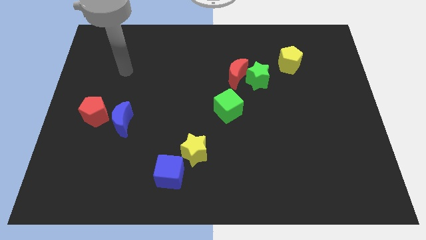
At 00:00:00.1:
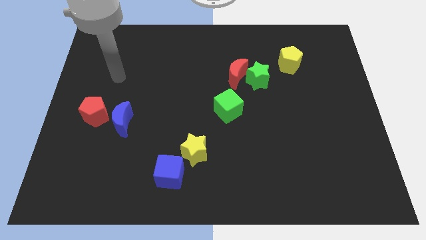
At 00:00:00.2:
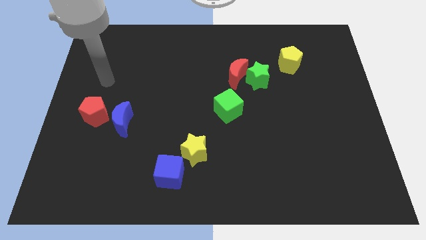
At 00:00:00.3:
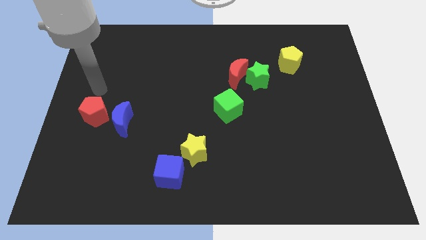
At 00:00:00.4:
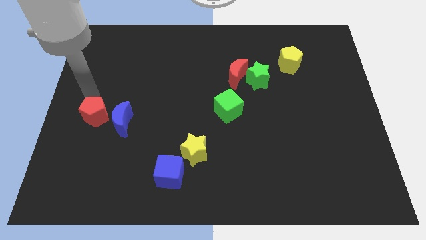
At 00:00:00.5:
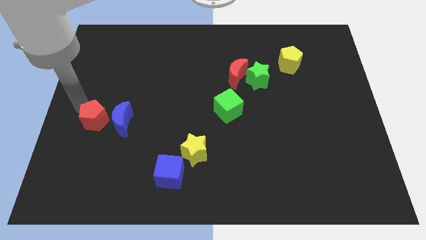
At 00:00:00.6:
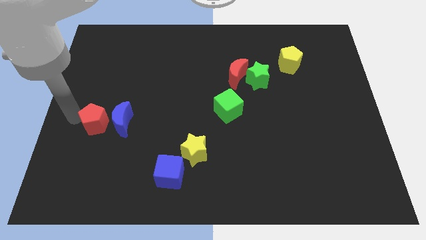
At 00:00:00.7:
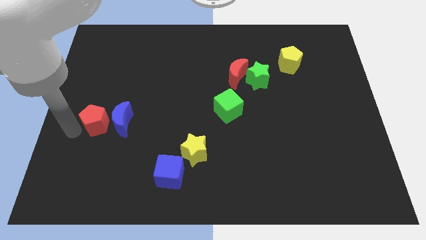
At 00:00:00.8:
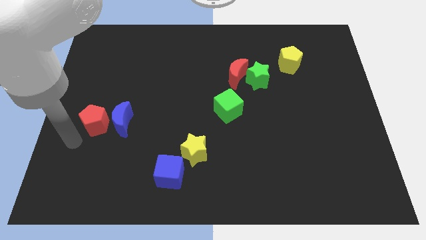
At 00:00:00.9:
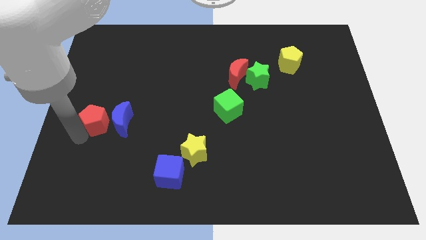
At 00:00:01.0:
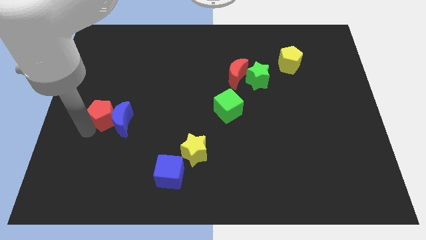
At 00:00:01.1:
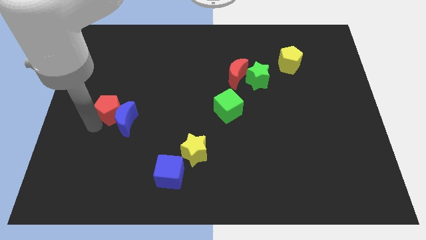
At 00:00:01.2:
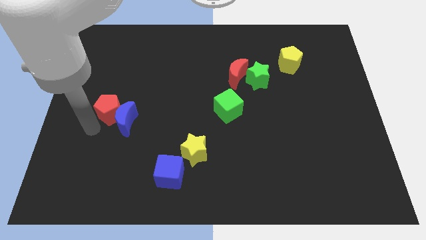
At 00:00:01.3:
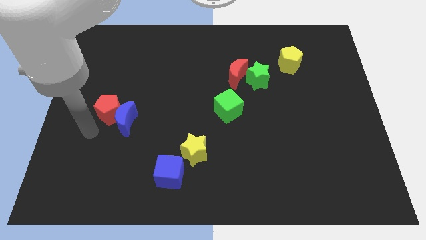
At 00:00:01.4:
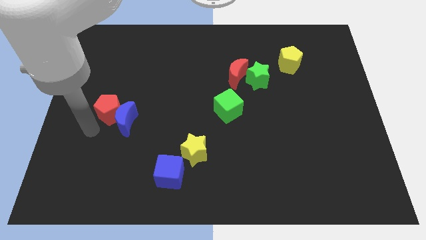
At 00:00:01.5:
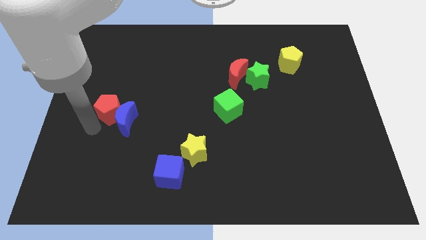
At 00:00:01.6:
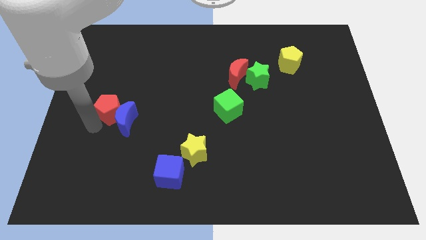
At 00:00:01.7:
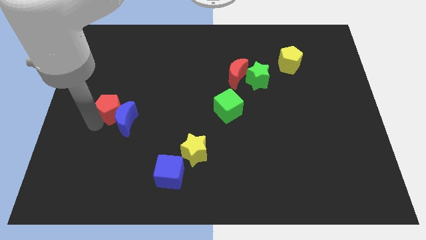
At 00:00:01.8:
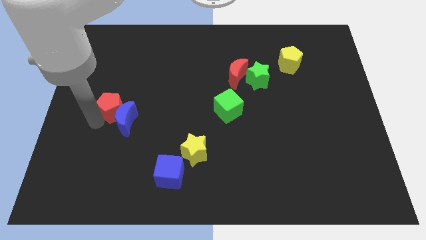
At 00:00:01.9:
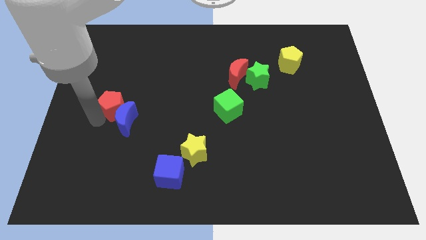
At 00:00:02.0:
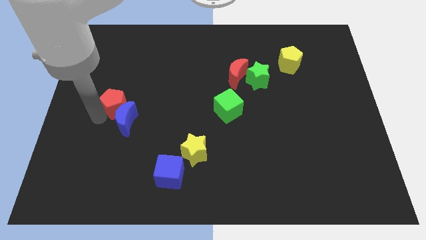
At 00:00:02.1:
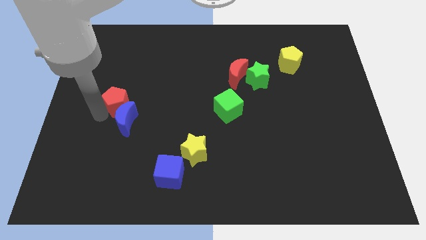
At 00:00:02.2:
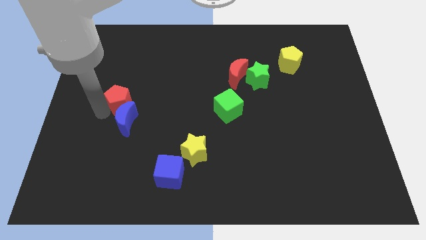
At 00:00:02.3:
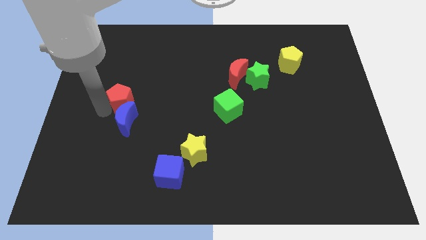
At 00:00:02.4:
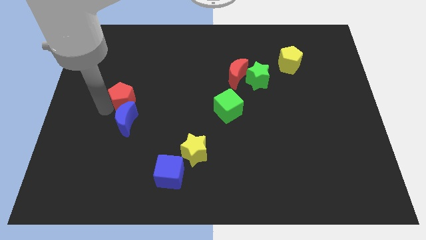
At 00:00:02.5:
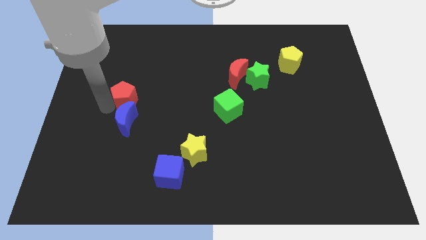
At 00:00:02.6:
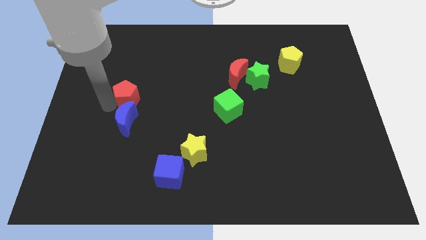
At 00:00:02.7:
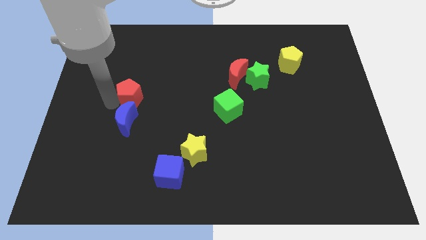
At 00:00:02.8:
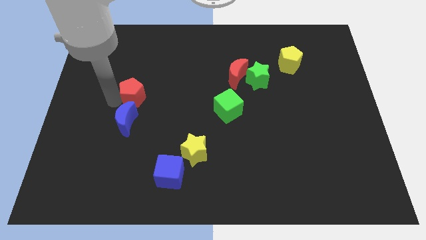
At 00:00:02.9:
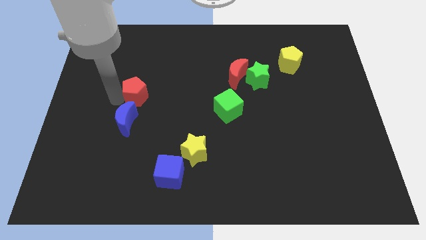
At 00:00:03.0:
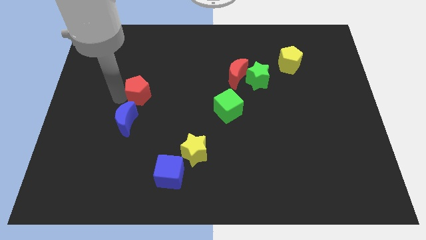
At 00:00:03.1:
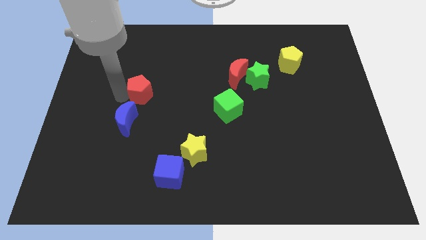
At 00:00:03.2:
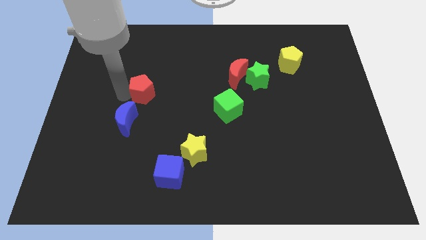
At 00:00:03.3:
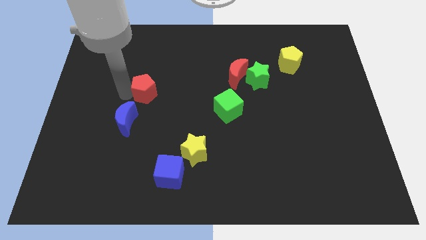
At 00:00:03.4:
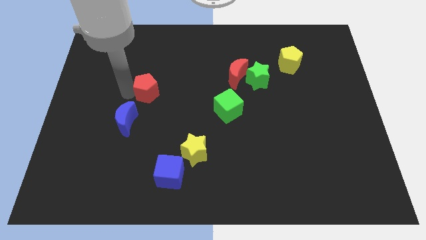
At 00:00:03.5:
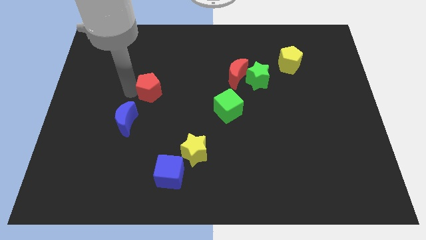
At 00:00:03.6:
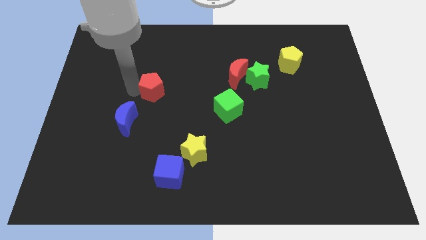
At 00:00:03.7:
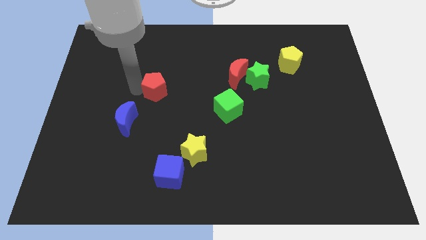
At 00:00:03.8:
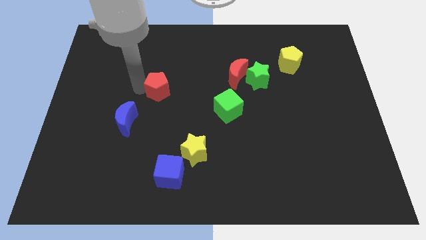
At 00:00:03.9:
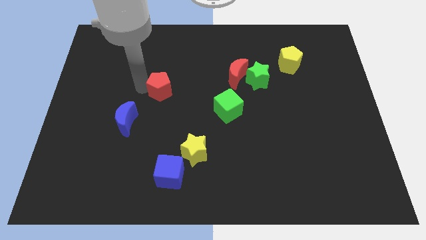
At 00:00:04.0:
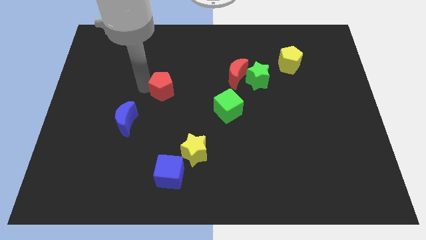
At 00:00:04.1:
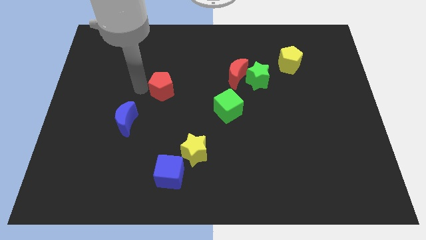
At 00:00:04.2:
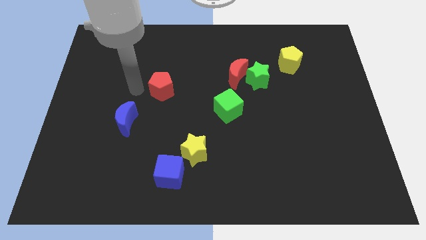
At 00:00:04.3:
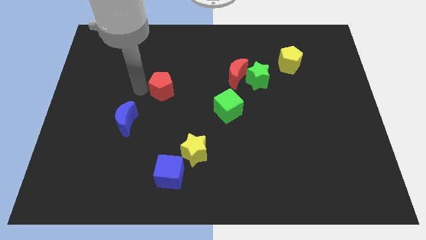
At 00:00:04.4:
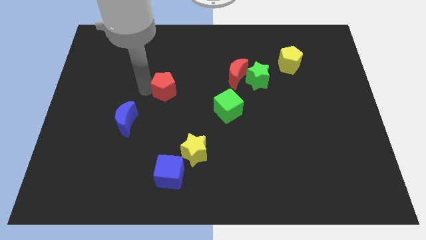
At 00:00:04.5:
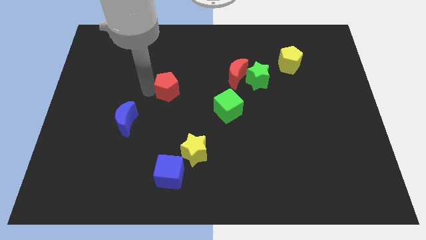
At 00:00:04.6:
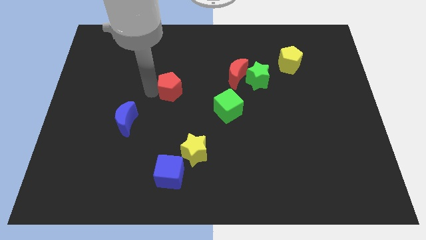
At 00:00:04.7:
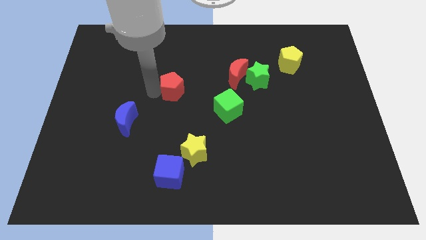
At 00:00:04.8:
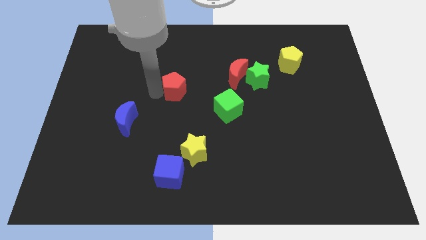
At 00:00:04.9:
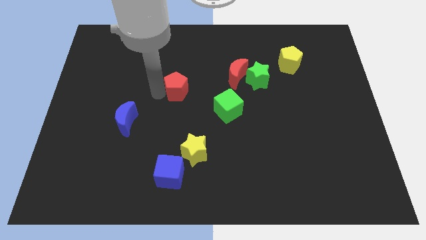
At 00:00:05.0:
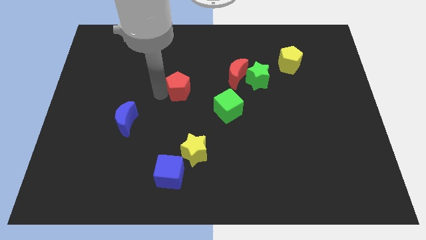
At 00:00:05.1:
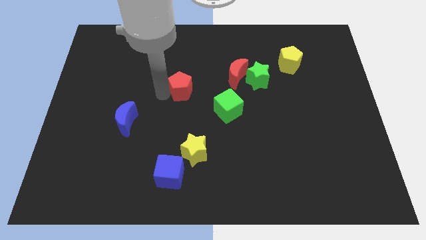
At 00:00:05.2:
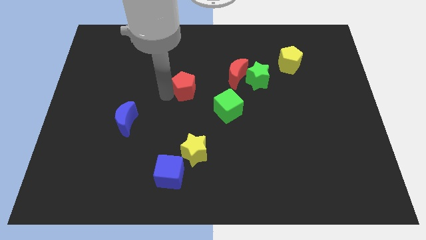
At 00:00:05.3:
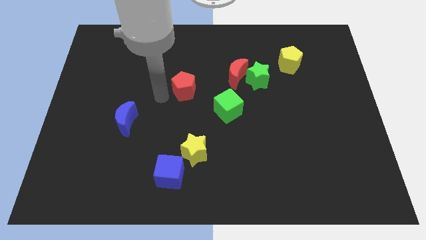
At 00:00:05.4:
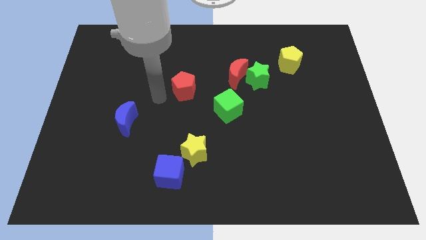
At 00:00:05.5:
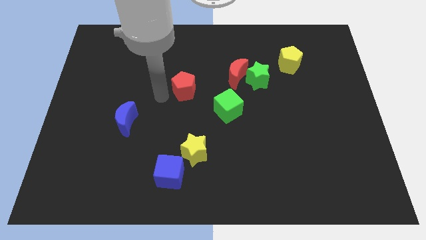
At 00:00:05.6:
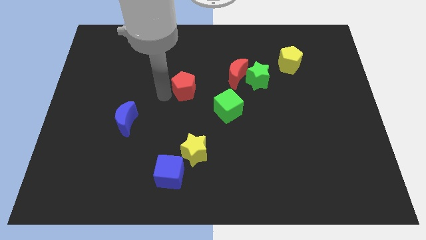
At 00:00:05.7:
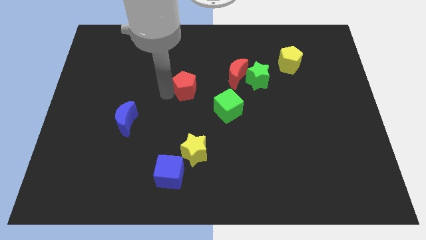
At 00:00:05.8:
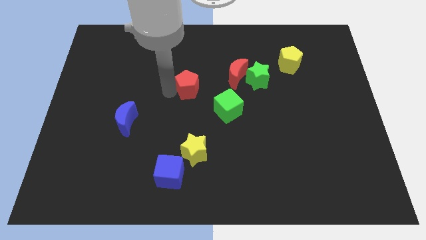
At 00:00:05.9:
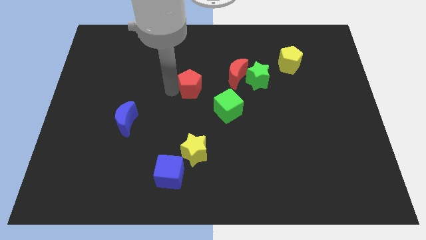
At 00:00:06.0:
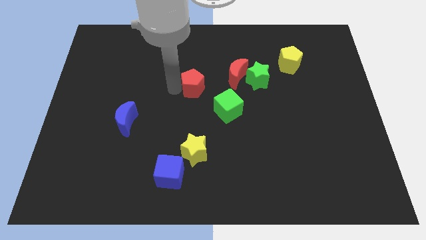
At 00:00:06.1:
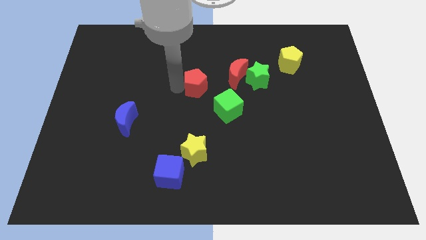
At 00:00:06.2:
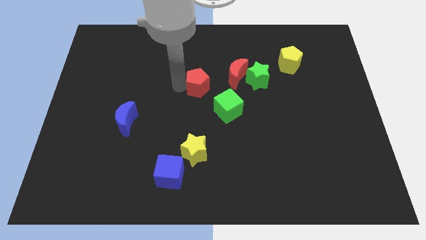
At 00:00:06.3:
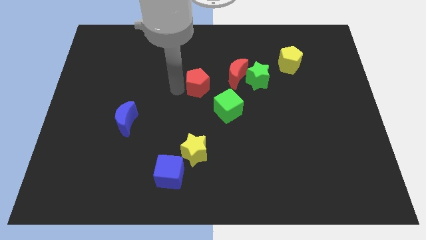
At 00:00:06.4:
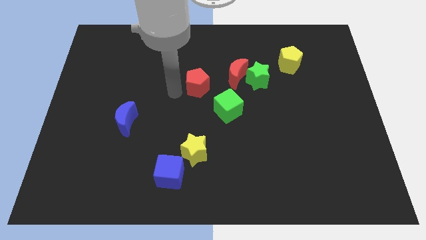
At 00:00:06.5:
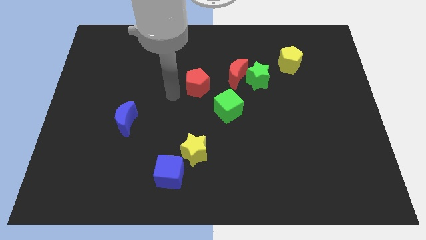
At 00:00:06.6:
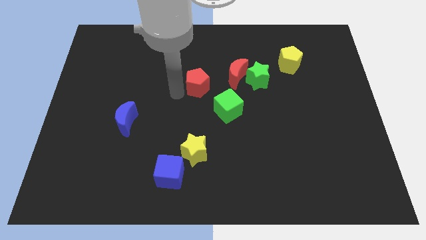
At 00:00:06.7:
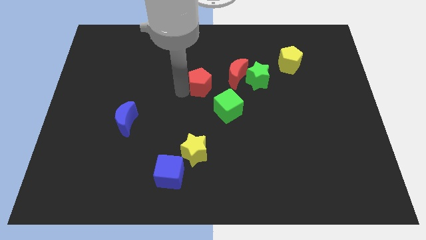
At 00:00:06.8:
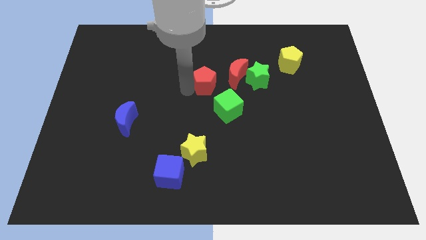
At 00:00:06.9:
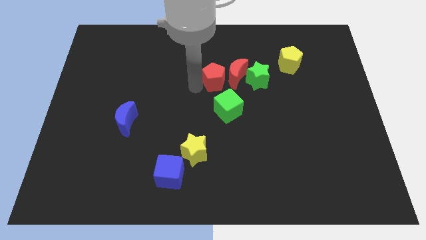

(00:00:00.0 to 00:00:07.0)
push the red pentagon close to the red moon

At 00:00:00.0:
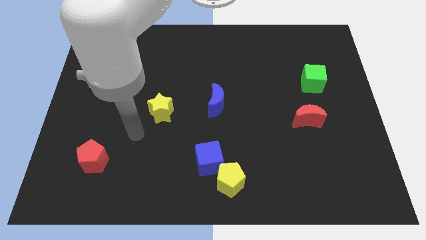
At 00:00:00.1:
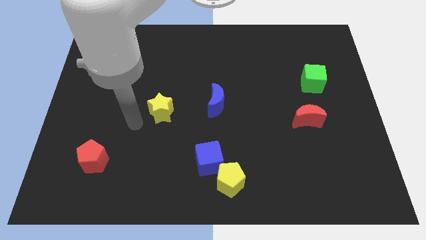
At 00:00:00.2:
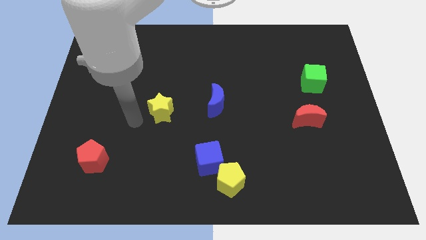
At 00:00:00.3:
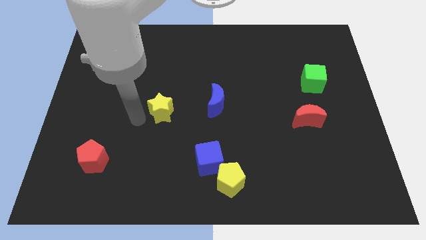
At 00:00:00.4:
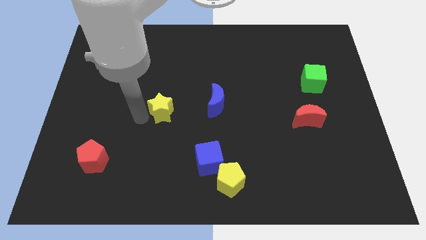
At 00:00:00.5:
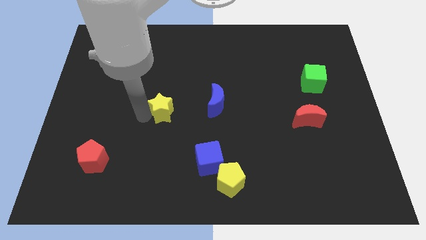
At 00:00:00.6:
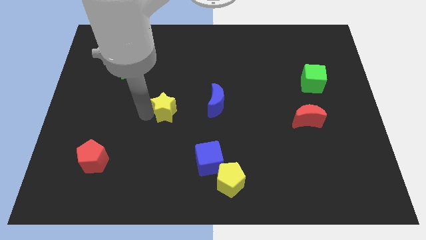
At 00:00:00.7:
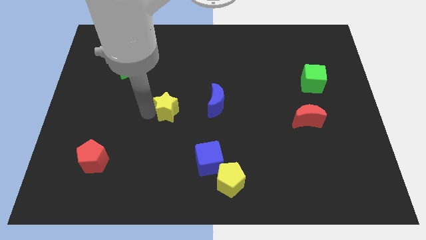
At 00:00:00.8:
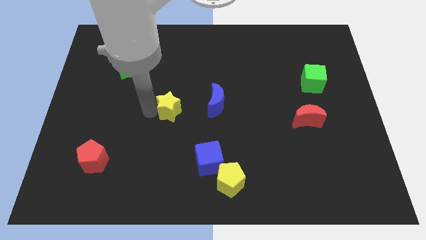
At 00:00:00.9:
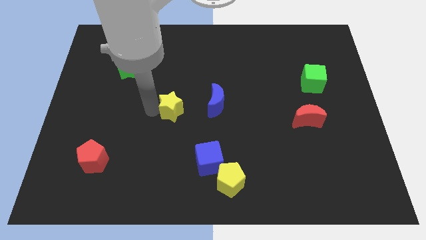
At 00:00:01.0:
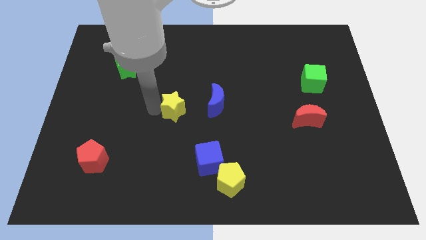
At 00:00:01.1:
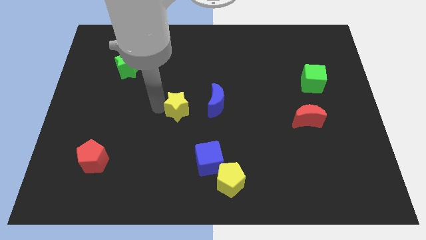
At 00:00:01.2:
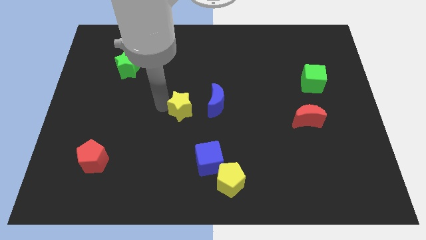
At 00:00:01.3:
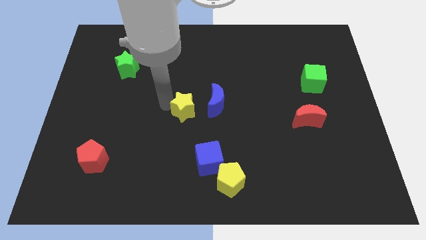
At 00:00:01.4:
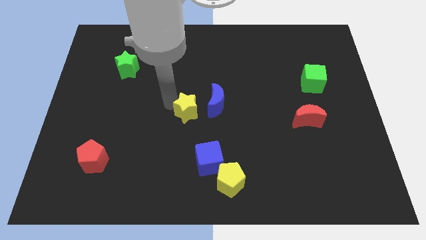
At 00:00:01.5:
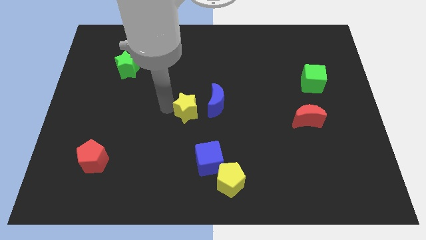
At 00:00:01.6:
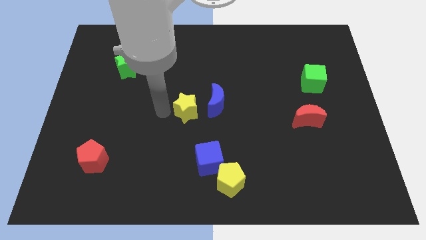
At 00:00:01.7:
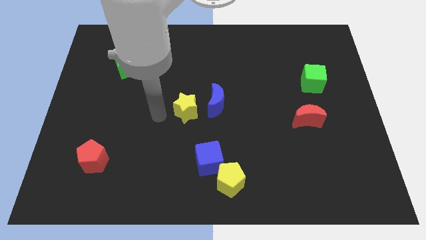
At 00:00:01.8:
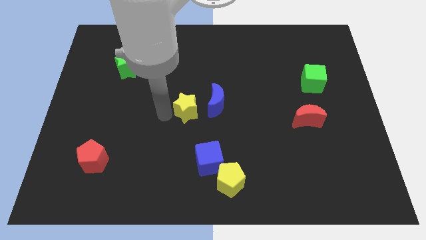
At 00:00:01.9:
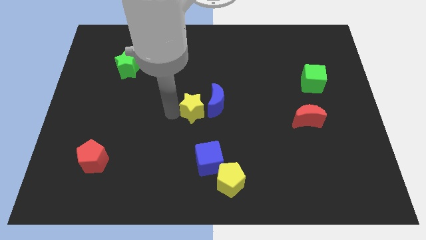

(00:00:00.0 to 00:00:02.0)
put the yellow star next to the blue moon
